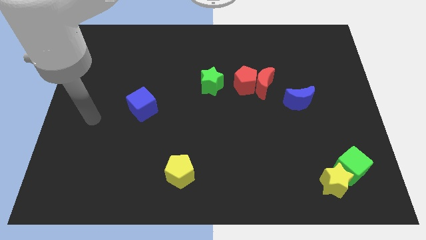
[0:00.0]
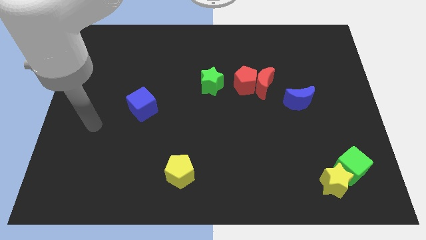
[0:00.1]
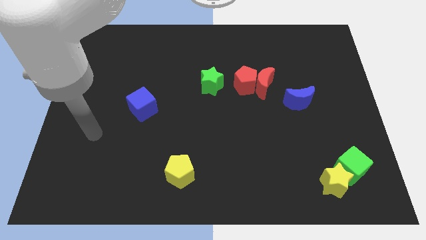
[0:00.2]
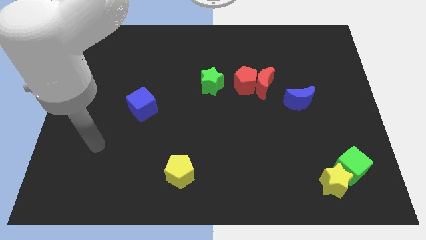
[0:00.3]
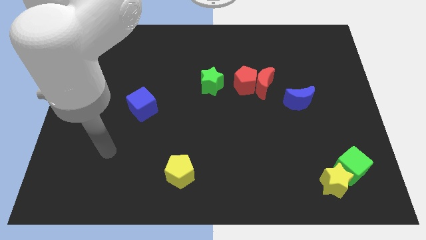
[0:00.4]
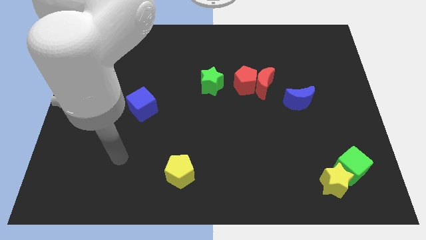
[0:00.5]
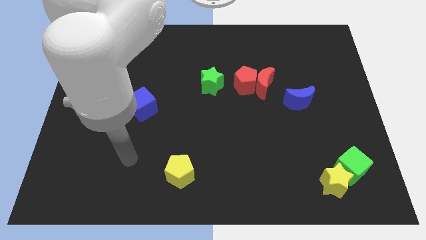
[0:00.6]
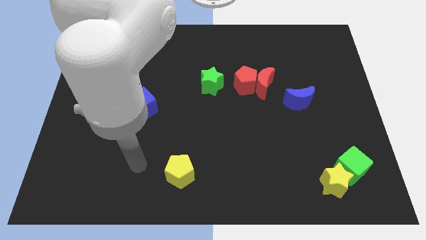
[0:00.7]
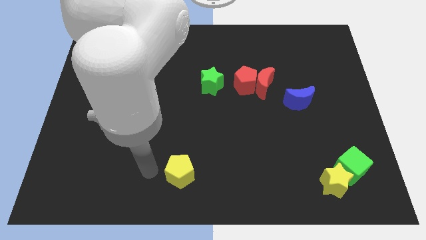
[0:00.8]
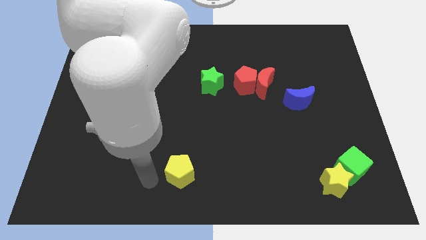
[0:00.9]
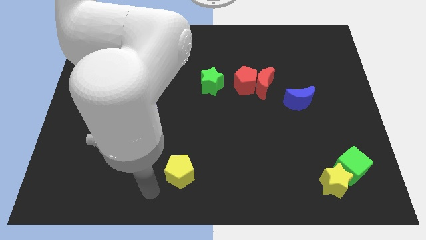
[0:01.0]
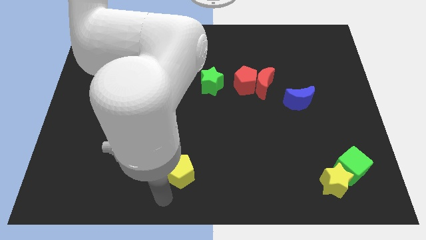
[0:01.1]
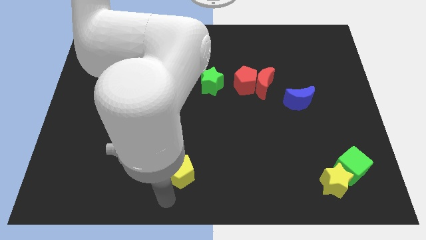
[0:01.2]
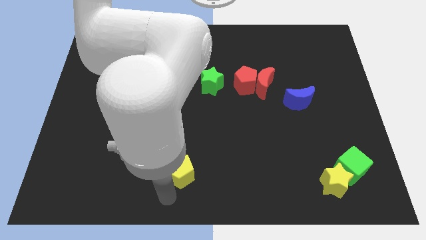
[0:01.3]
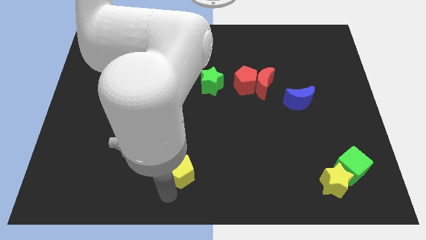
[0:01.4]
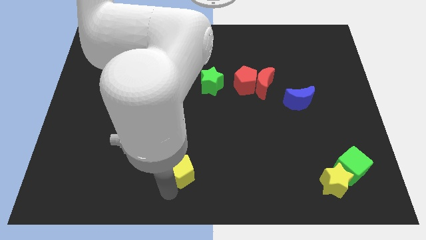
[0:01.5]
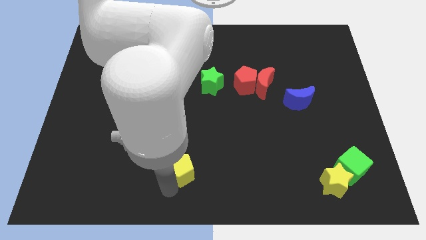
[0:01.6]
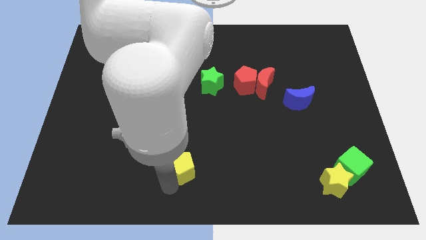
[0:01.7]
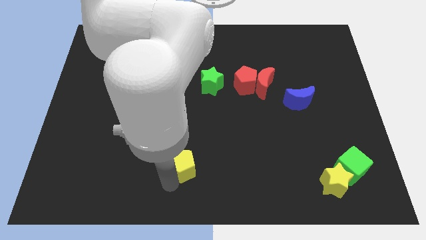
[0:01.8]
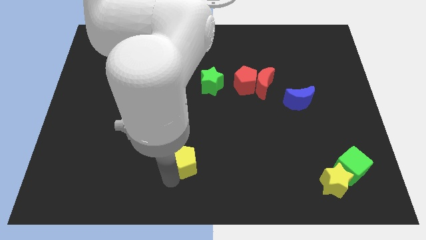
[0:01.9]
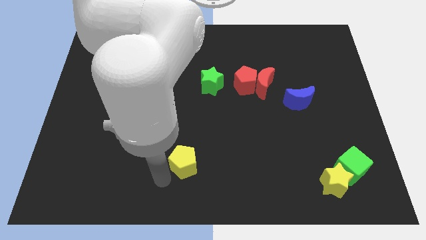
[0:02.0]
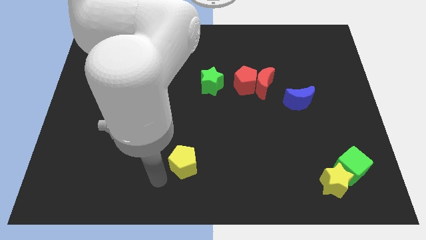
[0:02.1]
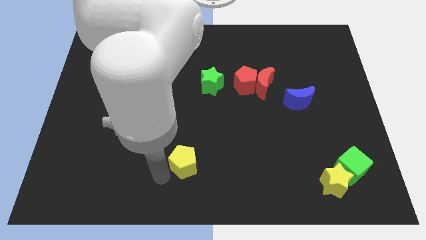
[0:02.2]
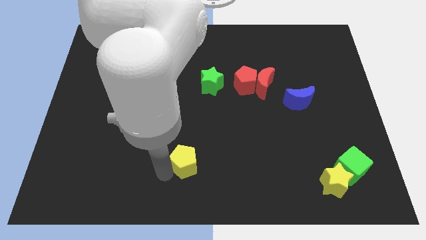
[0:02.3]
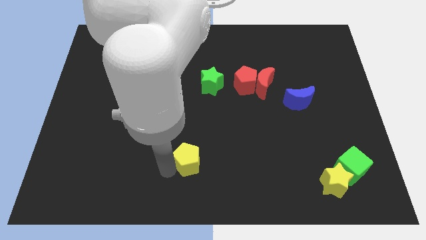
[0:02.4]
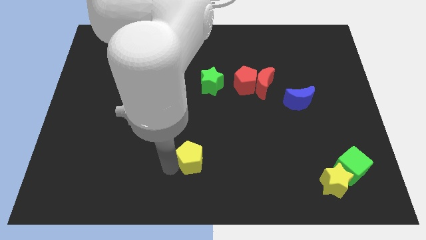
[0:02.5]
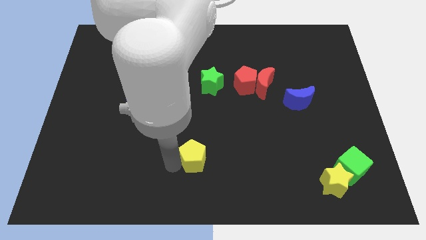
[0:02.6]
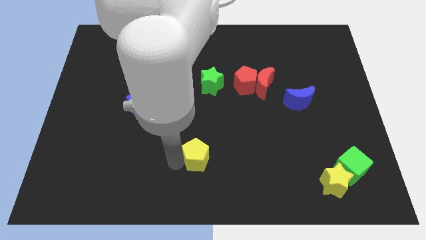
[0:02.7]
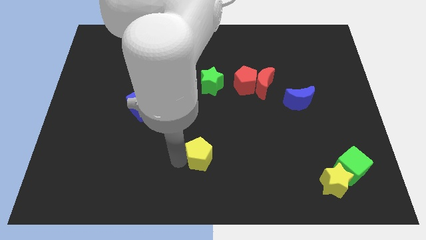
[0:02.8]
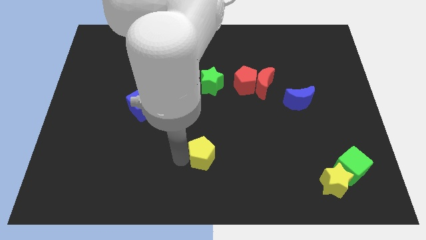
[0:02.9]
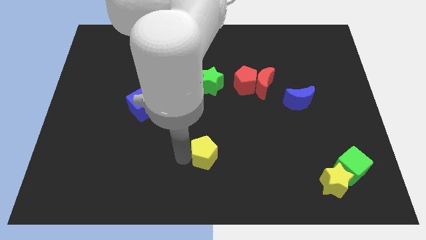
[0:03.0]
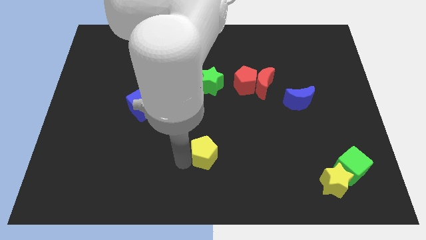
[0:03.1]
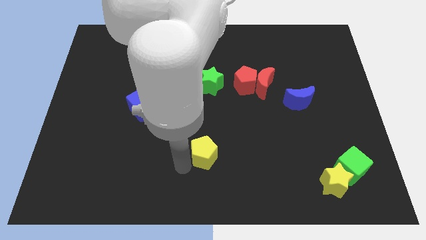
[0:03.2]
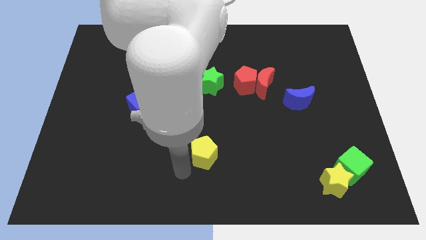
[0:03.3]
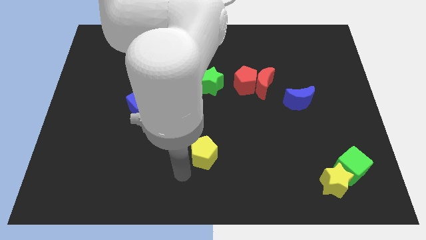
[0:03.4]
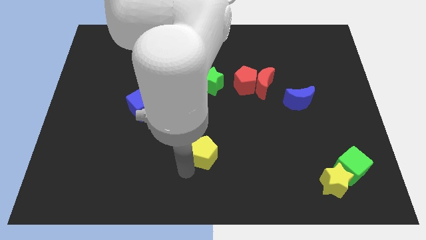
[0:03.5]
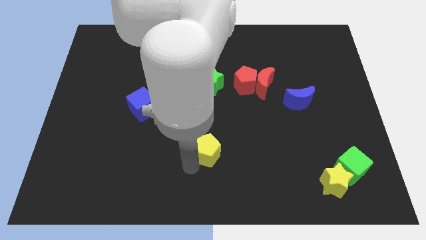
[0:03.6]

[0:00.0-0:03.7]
slide the yellow pentagon slightly diagonally upwards and to the right

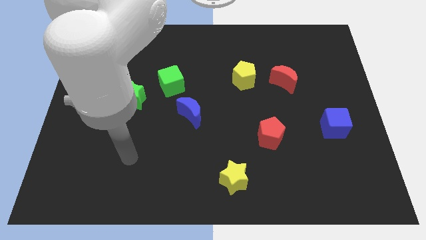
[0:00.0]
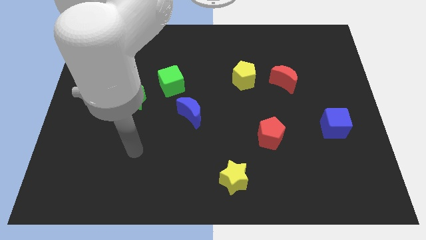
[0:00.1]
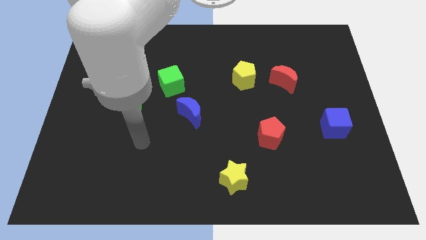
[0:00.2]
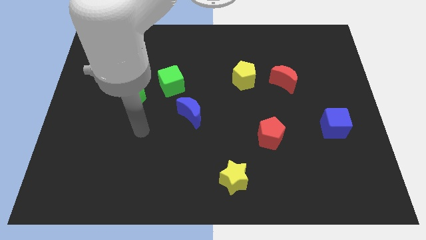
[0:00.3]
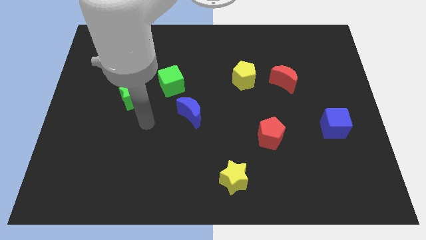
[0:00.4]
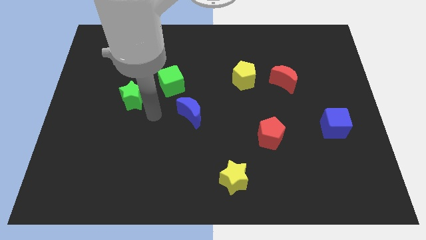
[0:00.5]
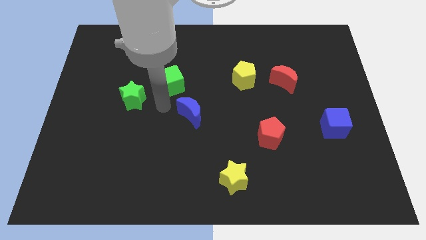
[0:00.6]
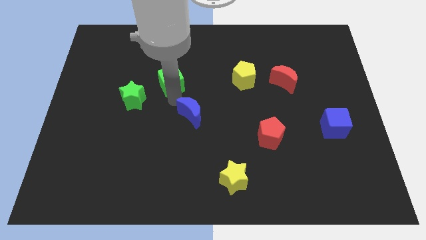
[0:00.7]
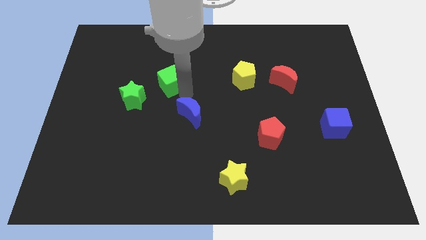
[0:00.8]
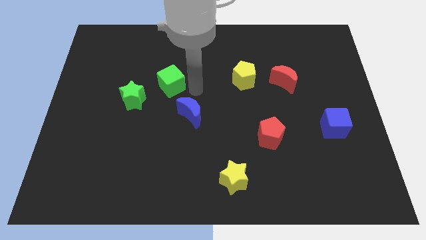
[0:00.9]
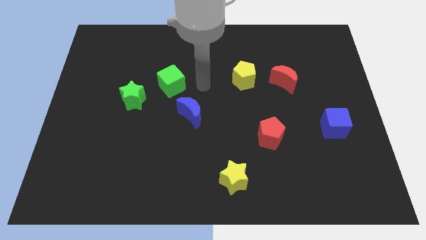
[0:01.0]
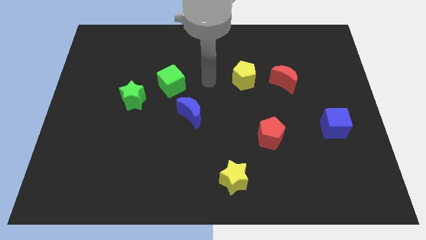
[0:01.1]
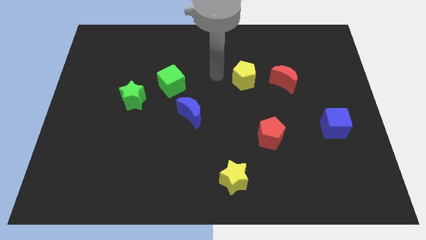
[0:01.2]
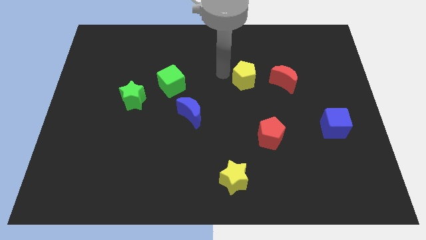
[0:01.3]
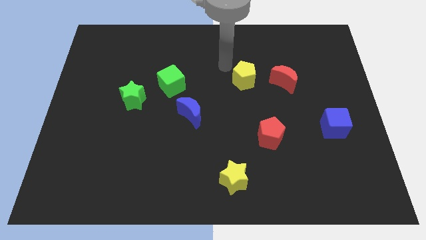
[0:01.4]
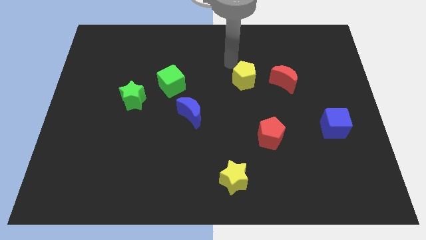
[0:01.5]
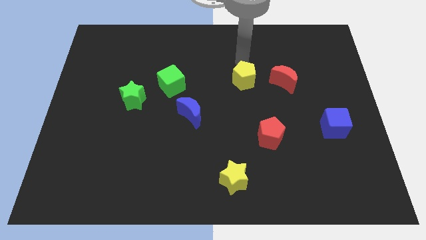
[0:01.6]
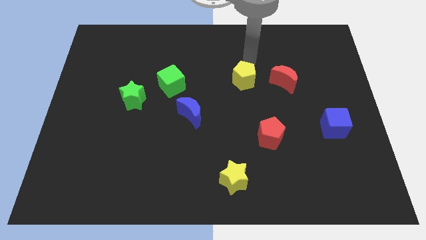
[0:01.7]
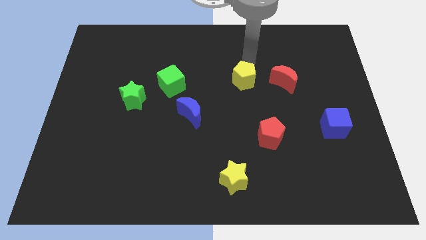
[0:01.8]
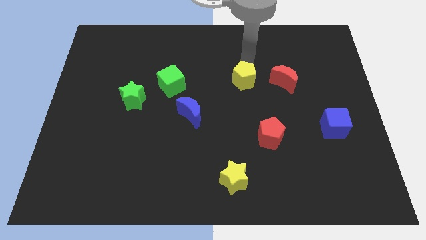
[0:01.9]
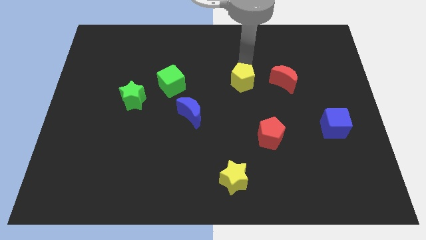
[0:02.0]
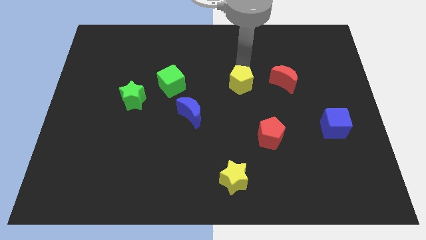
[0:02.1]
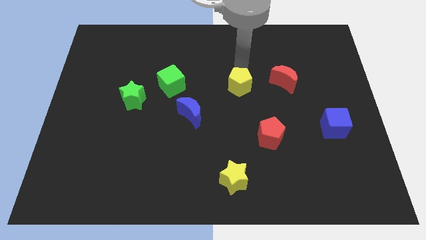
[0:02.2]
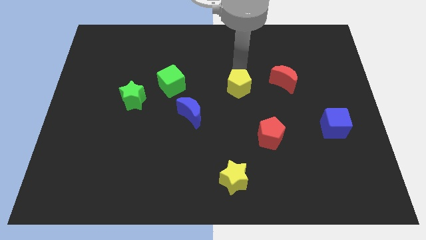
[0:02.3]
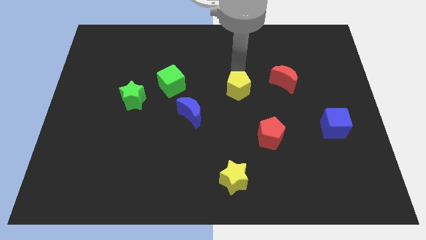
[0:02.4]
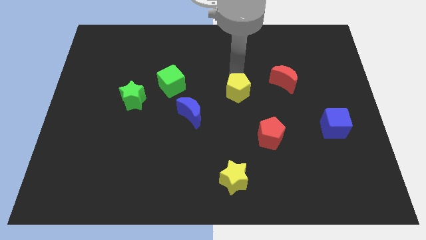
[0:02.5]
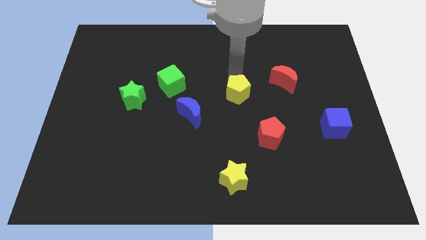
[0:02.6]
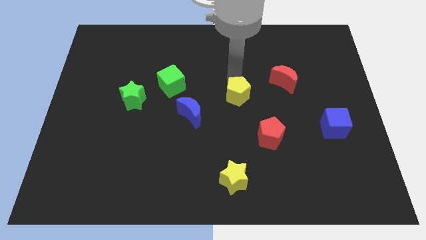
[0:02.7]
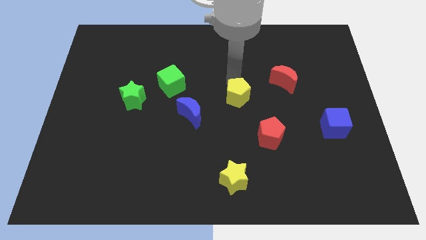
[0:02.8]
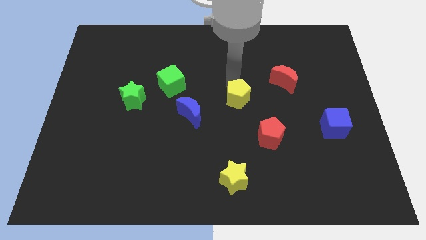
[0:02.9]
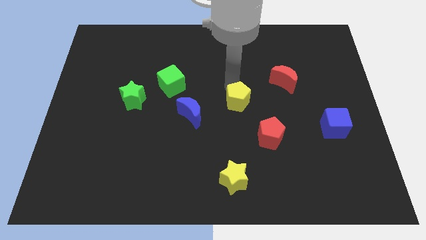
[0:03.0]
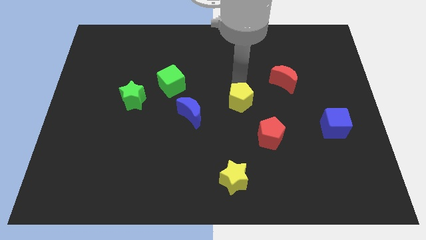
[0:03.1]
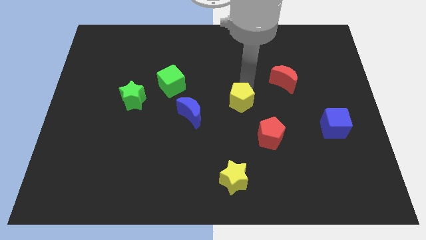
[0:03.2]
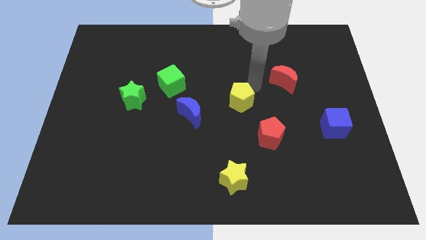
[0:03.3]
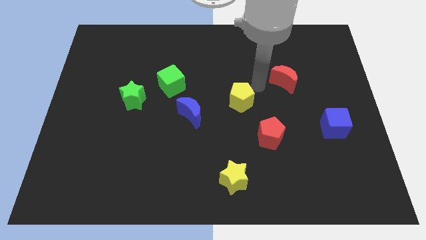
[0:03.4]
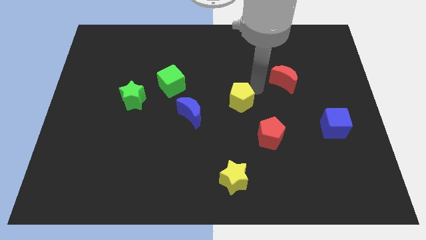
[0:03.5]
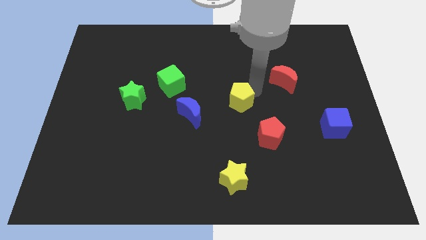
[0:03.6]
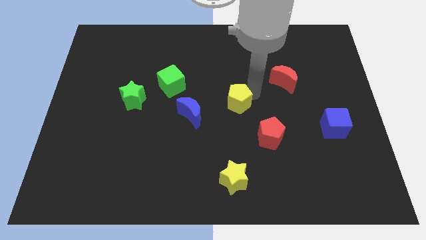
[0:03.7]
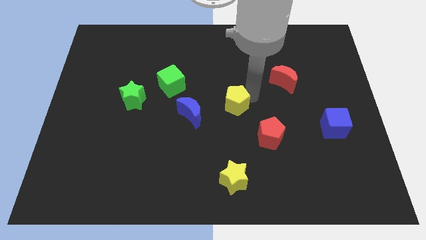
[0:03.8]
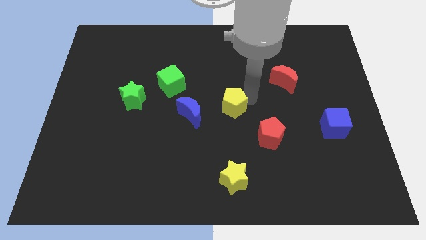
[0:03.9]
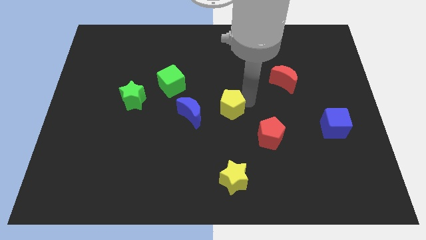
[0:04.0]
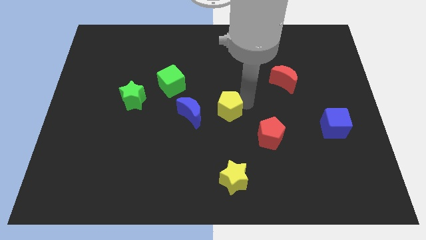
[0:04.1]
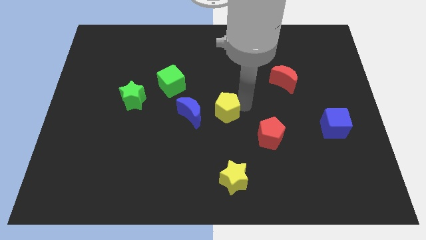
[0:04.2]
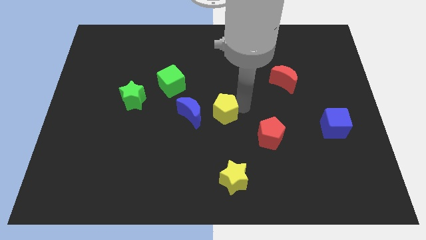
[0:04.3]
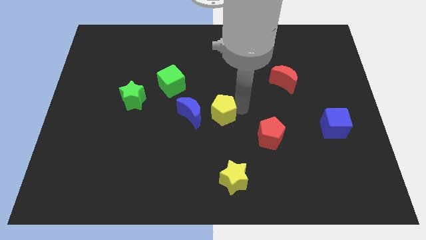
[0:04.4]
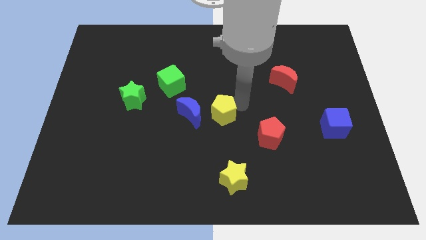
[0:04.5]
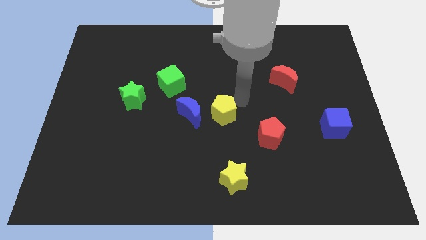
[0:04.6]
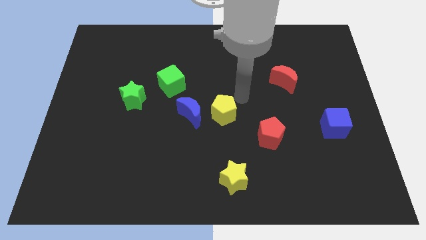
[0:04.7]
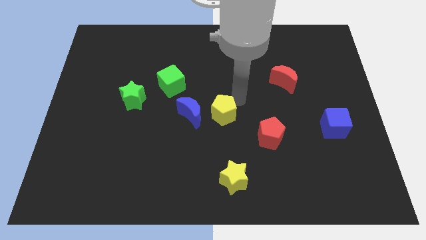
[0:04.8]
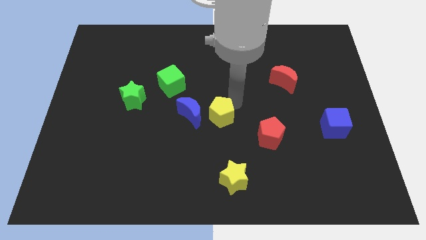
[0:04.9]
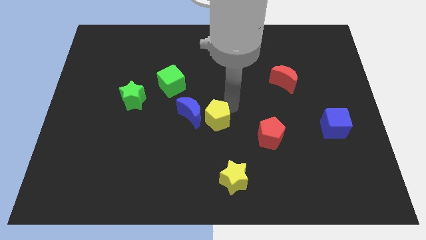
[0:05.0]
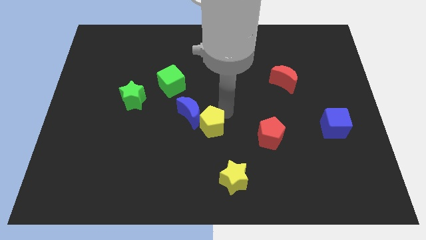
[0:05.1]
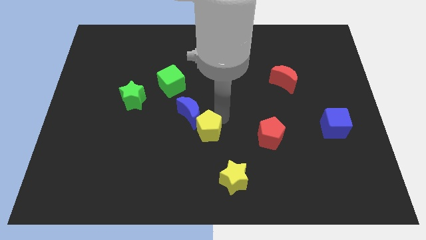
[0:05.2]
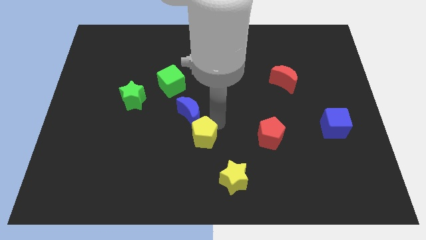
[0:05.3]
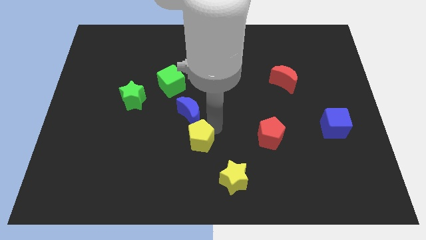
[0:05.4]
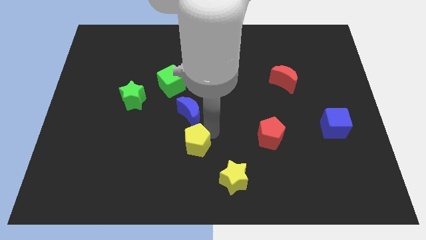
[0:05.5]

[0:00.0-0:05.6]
push the yellow pentagon downwards and to the left diagonally
